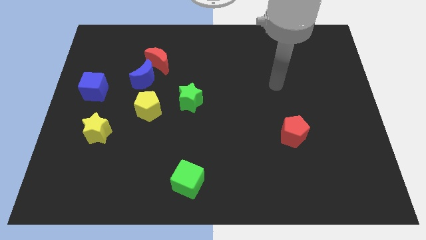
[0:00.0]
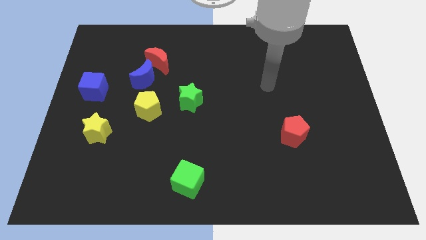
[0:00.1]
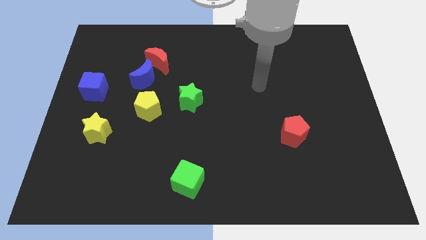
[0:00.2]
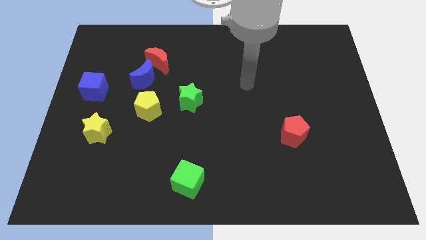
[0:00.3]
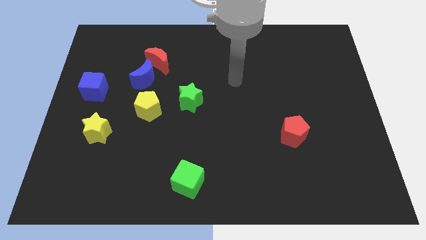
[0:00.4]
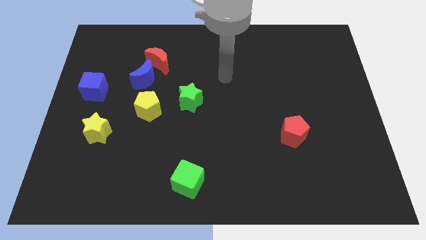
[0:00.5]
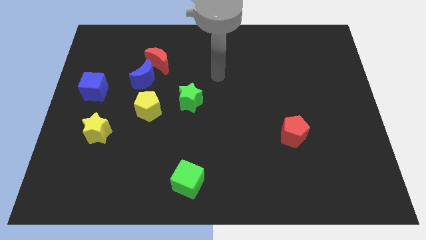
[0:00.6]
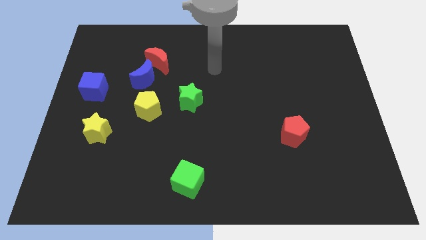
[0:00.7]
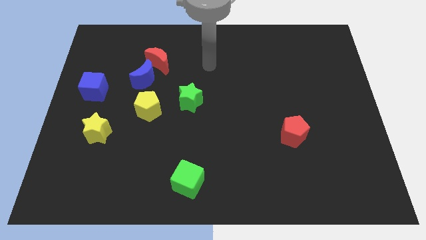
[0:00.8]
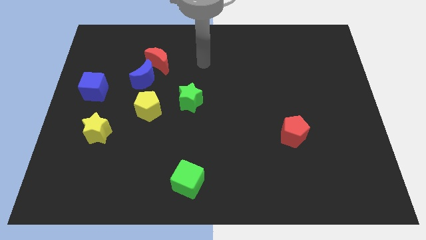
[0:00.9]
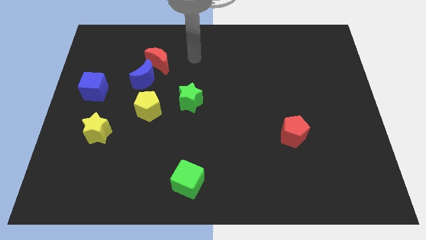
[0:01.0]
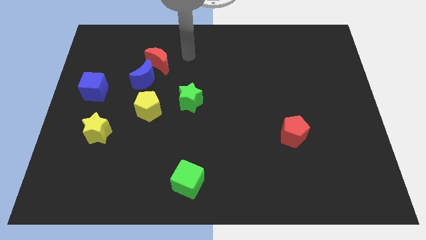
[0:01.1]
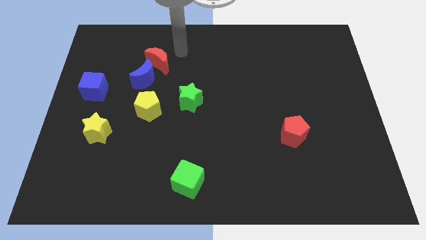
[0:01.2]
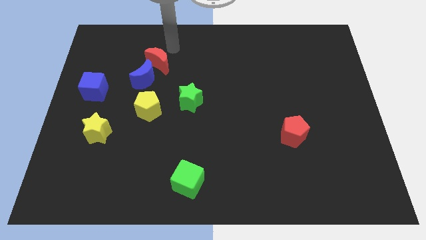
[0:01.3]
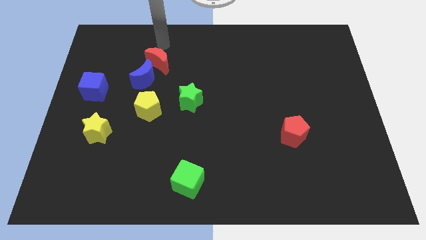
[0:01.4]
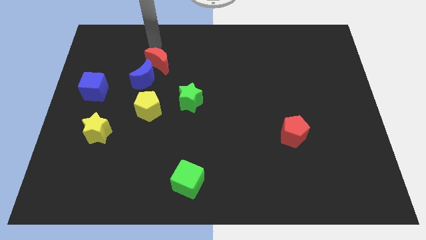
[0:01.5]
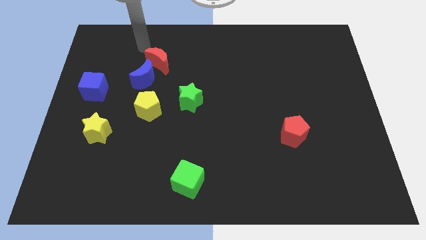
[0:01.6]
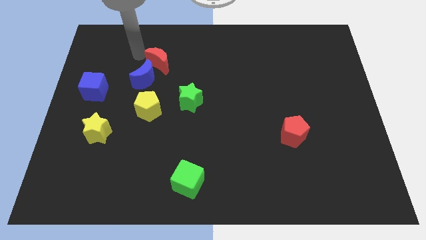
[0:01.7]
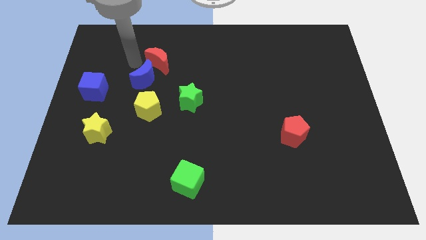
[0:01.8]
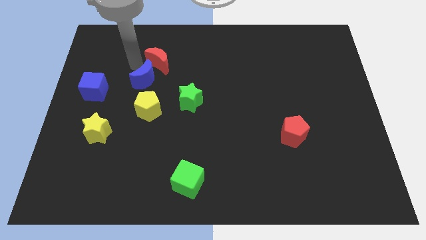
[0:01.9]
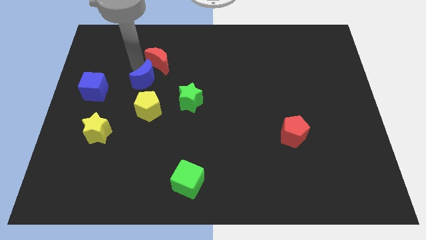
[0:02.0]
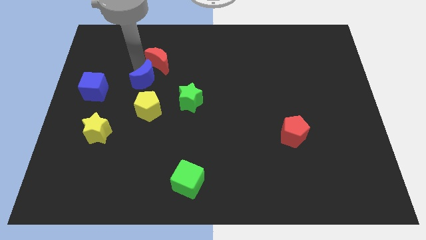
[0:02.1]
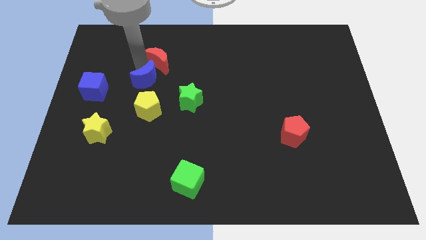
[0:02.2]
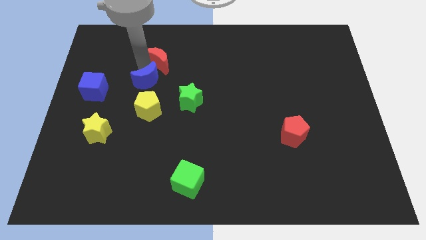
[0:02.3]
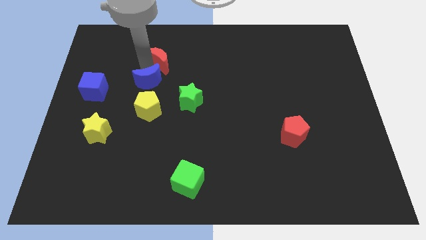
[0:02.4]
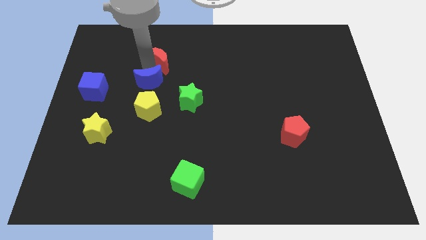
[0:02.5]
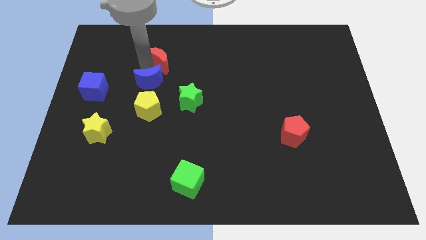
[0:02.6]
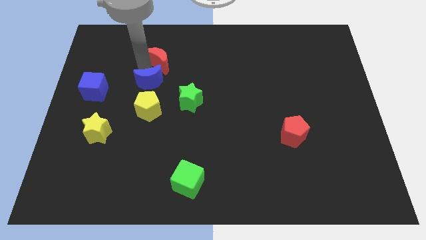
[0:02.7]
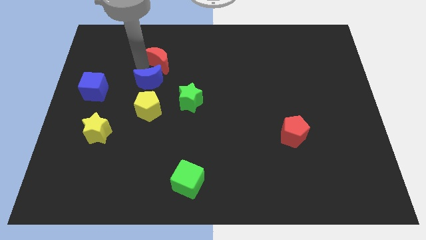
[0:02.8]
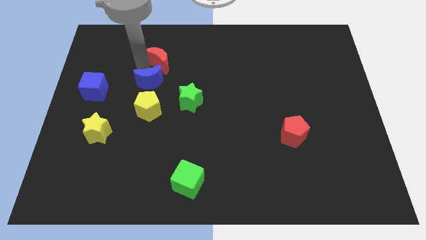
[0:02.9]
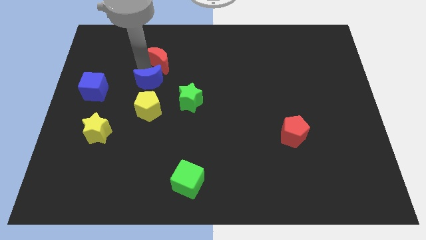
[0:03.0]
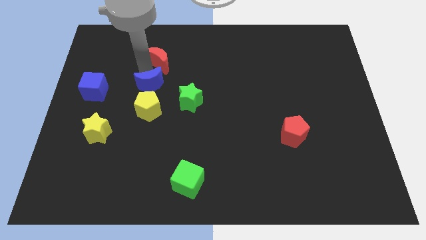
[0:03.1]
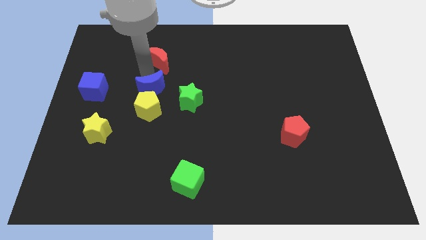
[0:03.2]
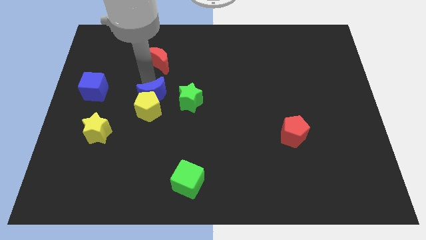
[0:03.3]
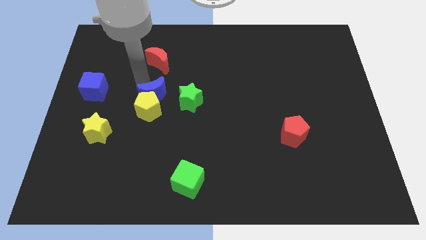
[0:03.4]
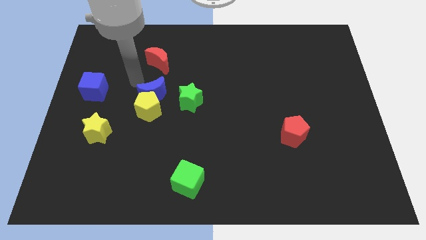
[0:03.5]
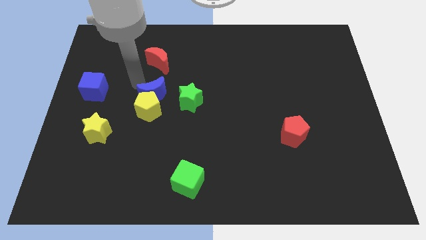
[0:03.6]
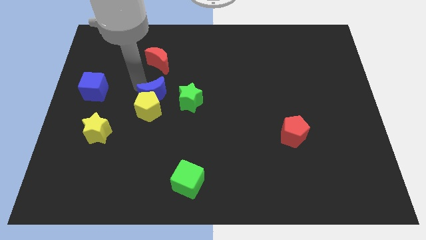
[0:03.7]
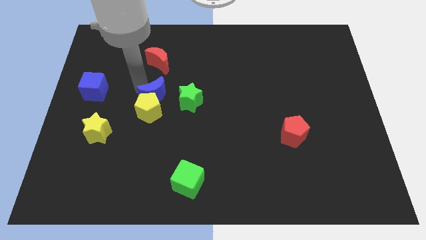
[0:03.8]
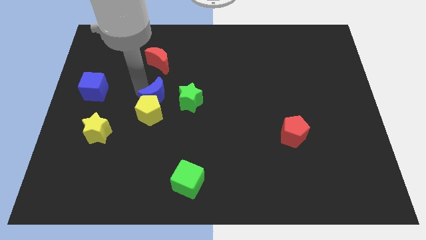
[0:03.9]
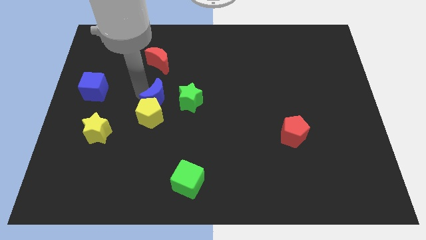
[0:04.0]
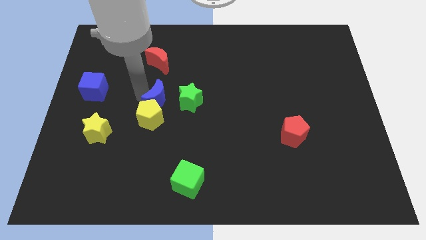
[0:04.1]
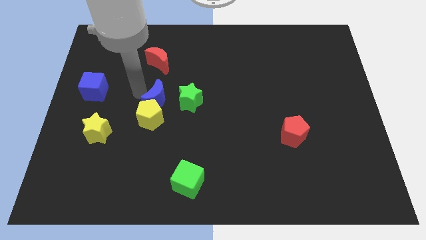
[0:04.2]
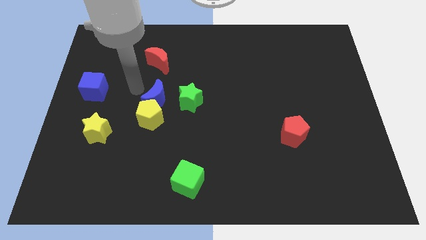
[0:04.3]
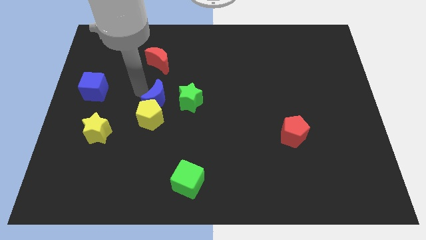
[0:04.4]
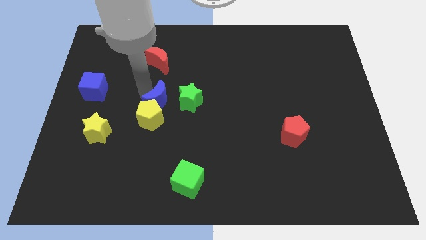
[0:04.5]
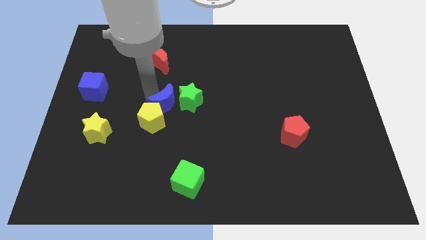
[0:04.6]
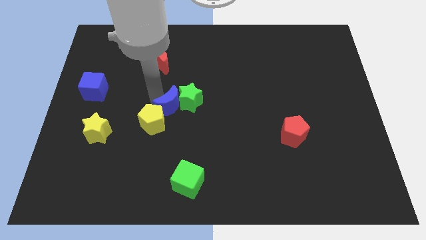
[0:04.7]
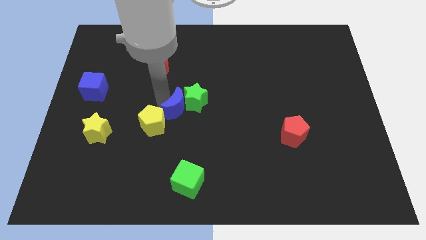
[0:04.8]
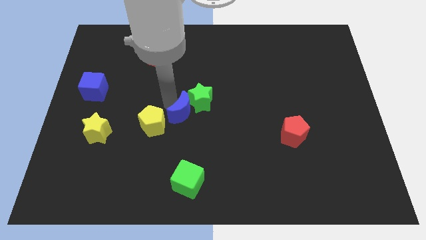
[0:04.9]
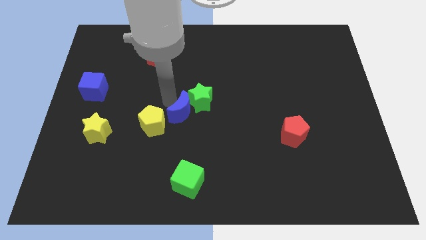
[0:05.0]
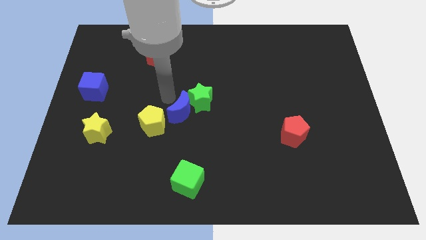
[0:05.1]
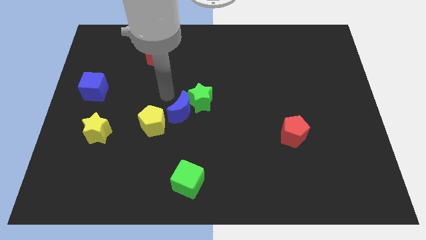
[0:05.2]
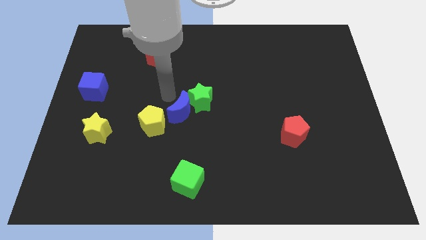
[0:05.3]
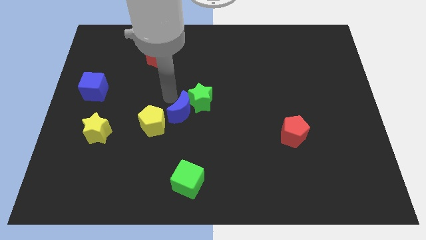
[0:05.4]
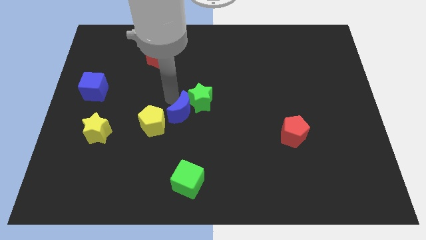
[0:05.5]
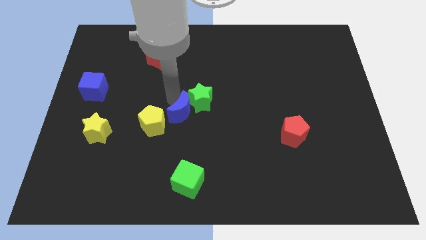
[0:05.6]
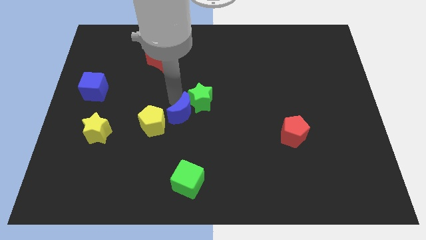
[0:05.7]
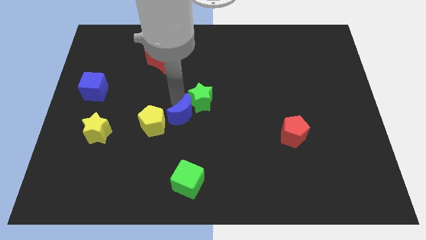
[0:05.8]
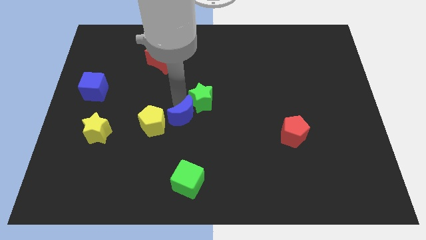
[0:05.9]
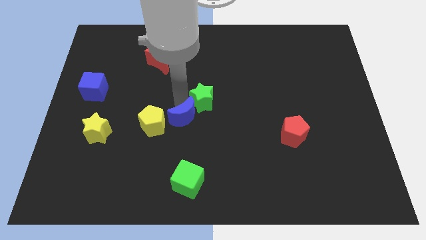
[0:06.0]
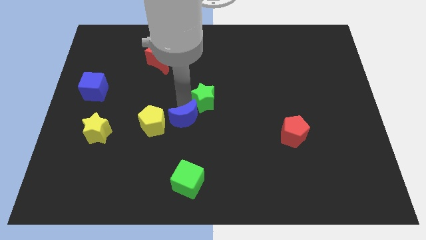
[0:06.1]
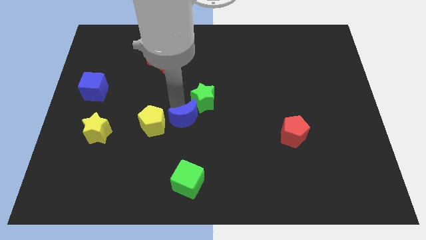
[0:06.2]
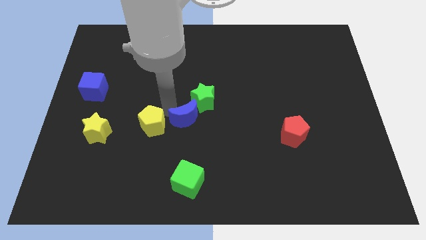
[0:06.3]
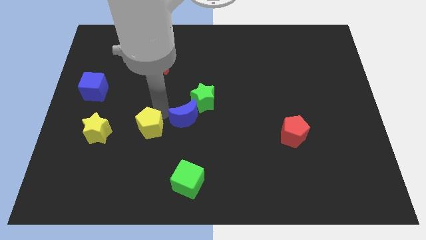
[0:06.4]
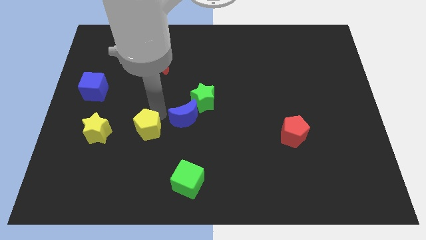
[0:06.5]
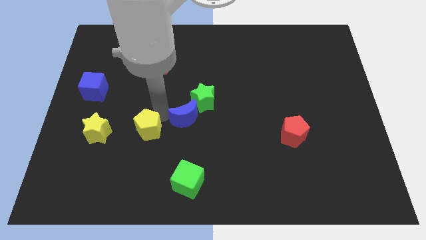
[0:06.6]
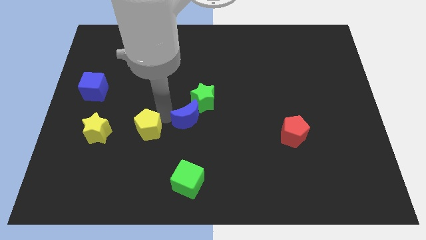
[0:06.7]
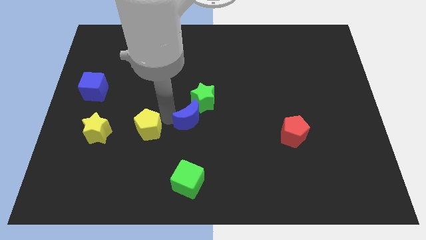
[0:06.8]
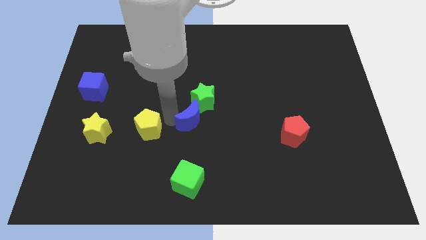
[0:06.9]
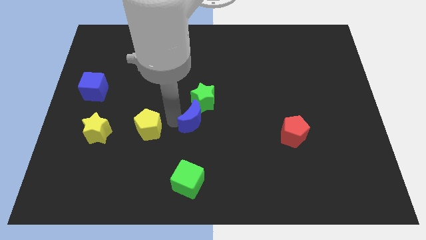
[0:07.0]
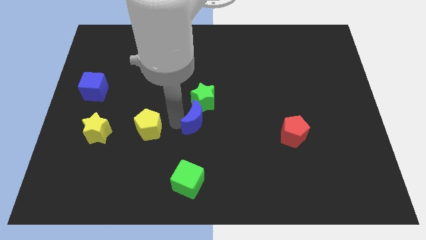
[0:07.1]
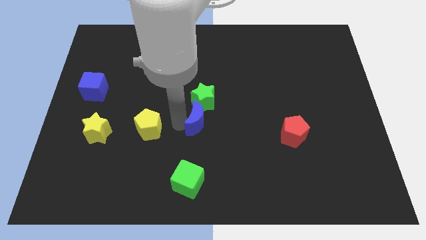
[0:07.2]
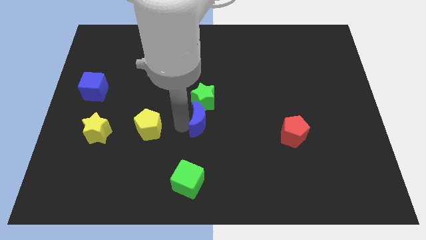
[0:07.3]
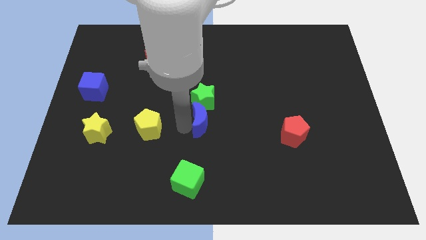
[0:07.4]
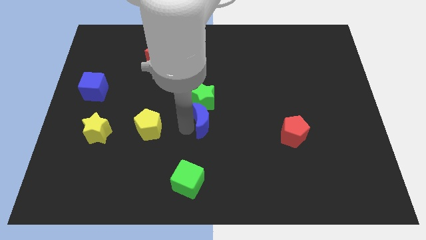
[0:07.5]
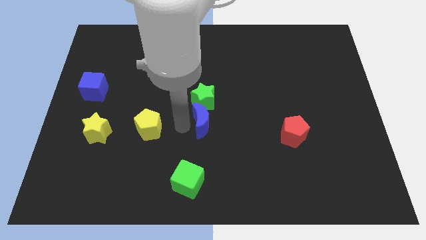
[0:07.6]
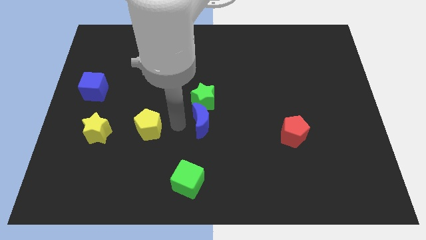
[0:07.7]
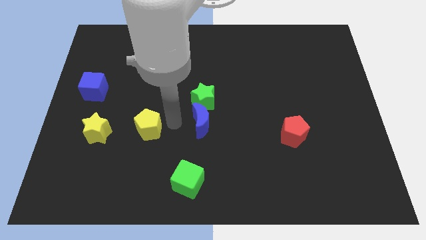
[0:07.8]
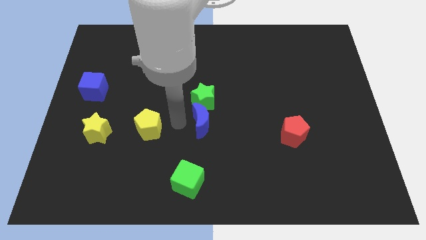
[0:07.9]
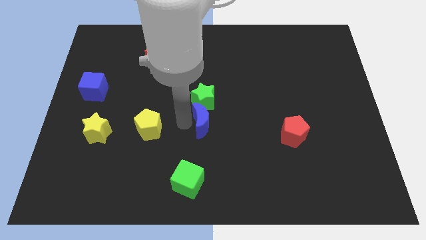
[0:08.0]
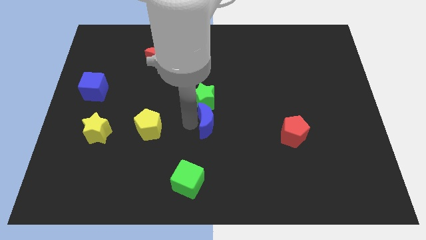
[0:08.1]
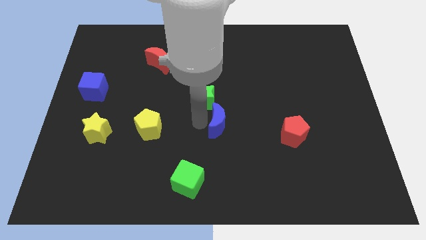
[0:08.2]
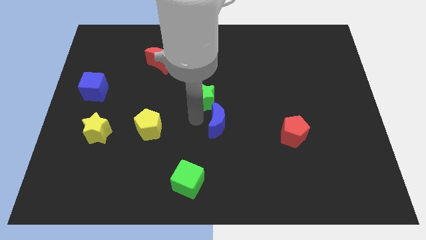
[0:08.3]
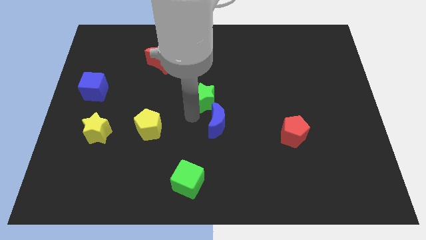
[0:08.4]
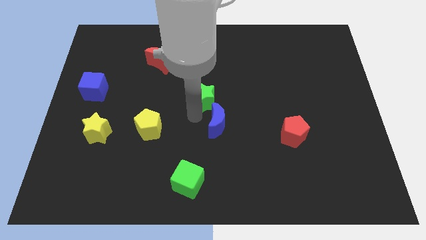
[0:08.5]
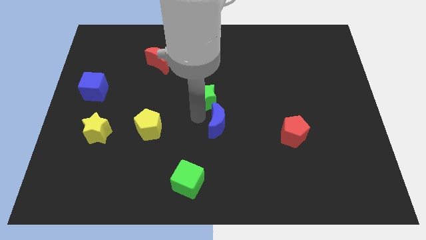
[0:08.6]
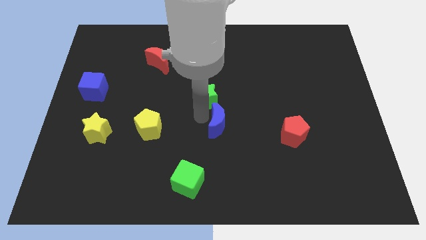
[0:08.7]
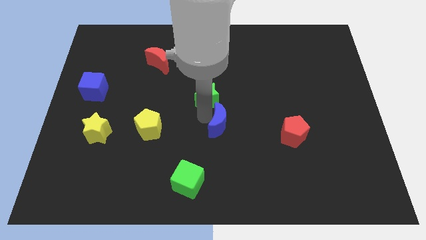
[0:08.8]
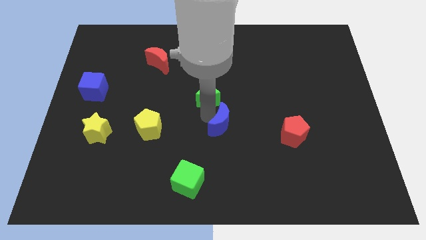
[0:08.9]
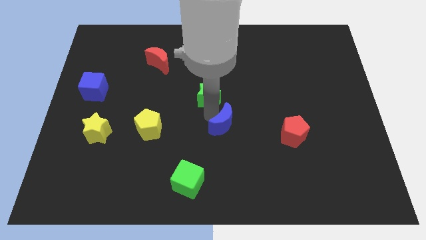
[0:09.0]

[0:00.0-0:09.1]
slide the blue moon left of the red pentagon
